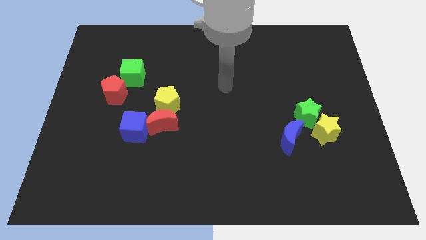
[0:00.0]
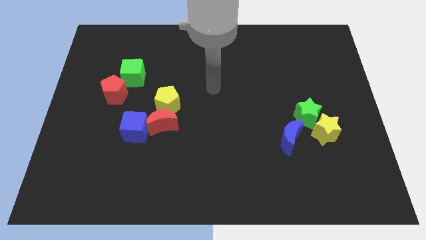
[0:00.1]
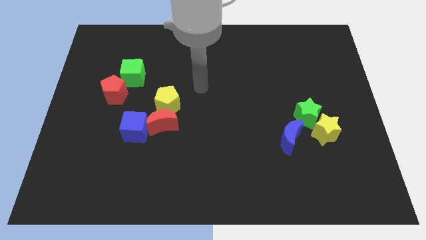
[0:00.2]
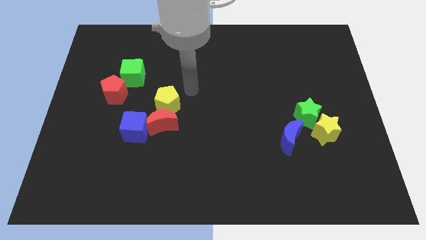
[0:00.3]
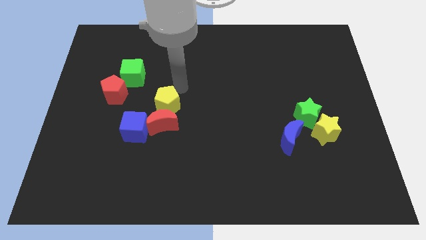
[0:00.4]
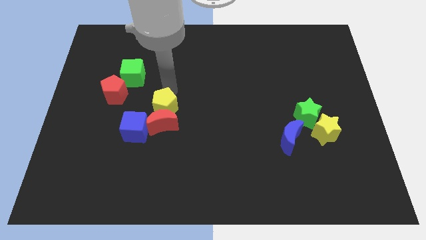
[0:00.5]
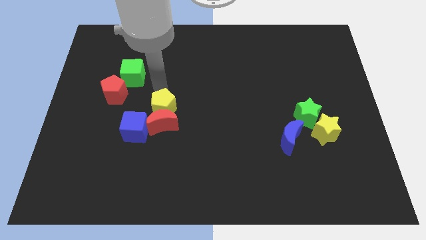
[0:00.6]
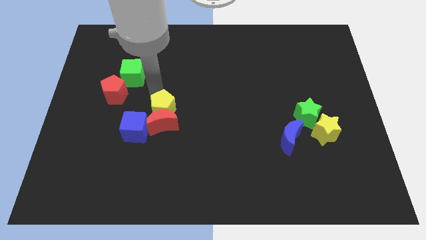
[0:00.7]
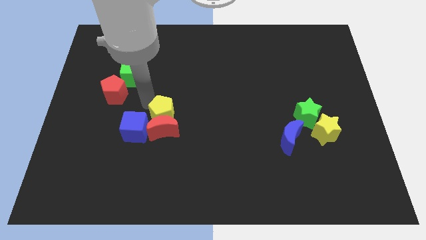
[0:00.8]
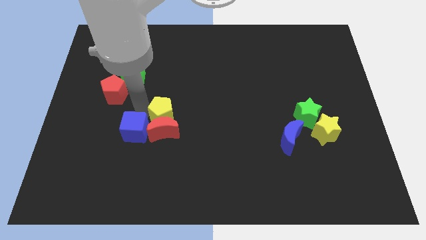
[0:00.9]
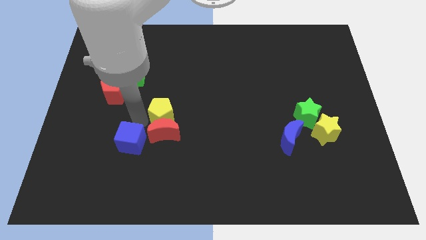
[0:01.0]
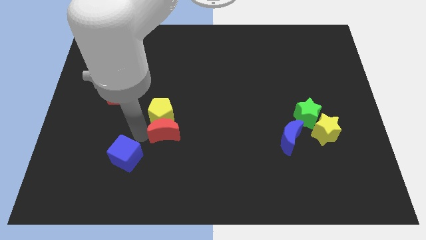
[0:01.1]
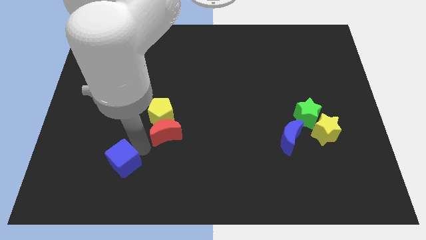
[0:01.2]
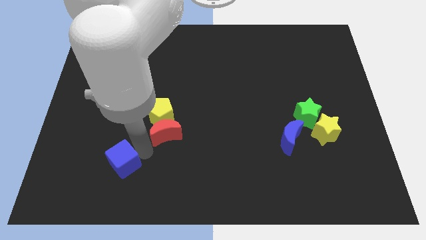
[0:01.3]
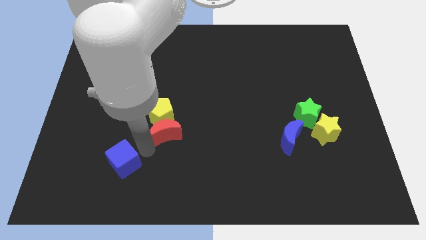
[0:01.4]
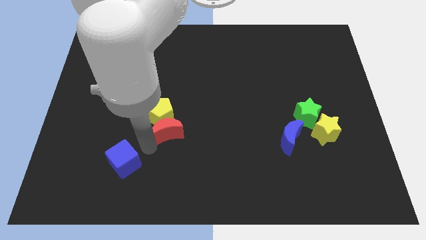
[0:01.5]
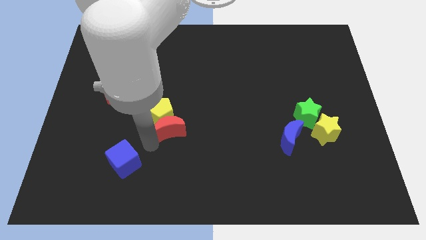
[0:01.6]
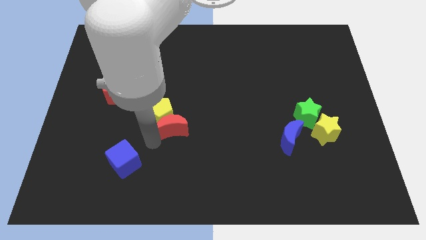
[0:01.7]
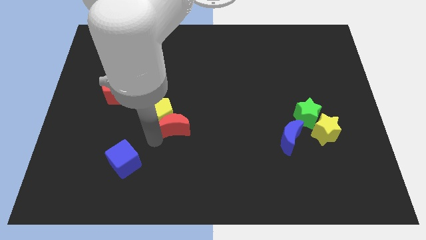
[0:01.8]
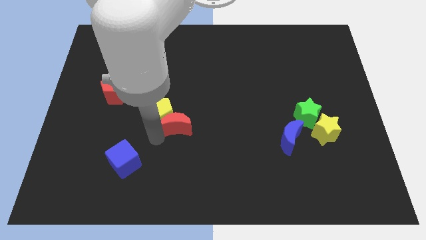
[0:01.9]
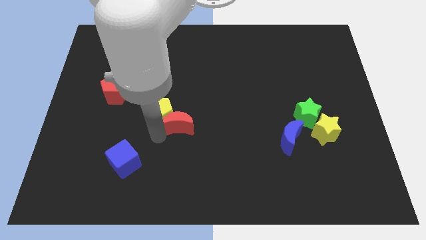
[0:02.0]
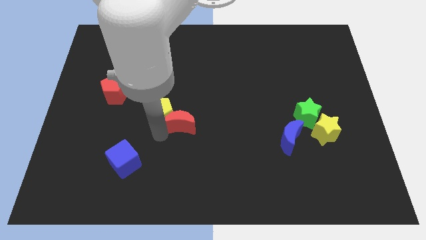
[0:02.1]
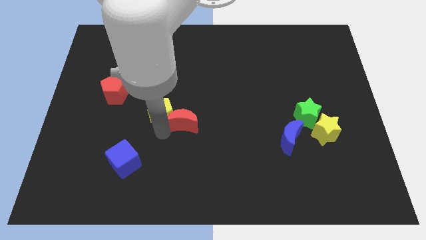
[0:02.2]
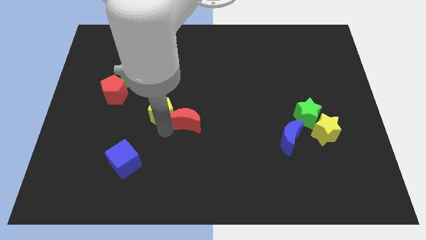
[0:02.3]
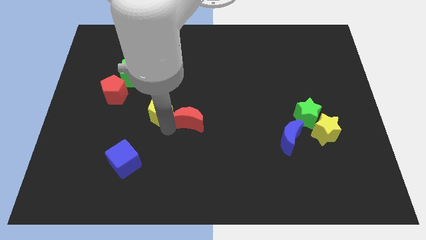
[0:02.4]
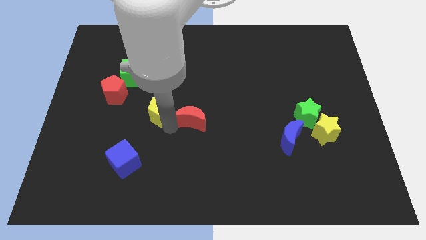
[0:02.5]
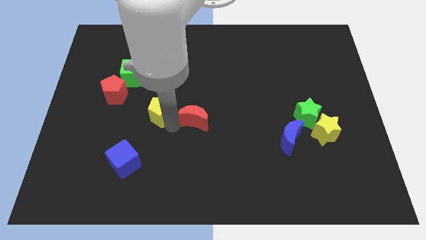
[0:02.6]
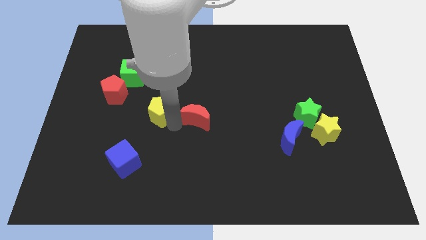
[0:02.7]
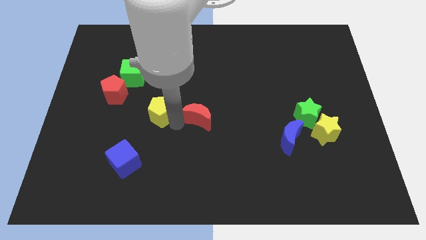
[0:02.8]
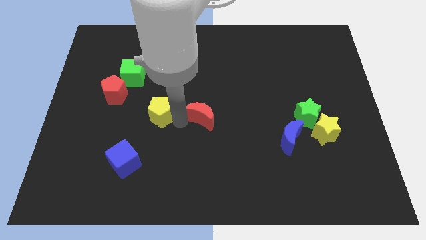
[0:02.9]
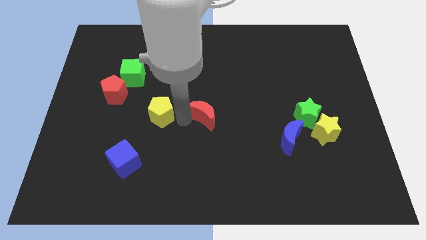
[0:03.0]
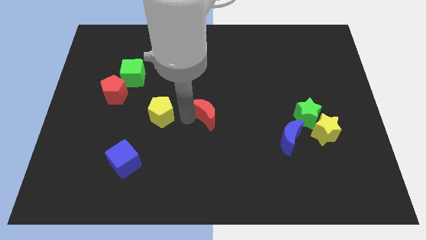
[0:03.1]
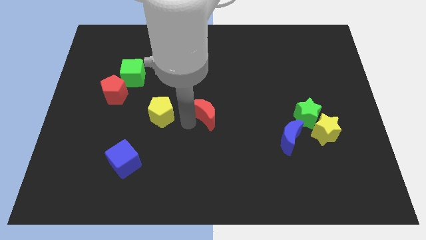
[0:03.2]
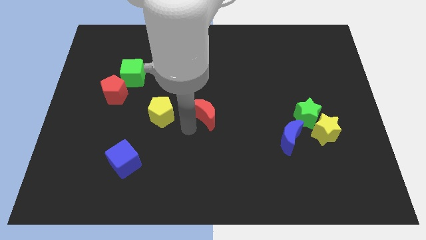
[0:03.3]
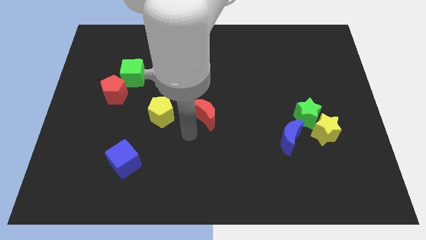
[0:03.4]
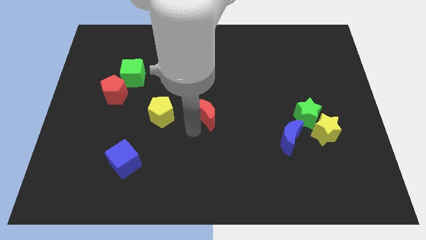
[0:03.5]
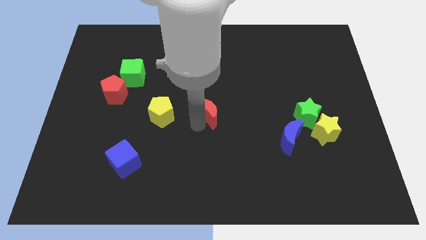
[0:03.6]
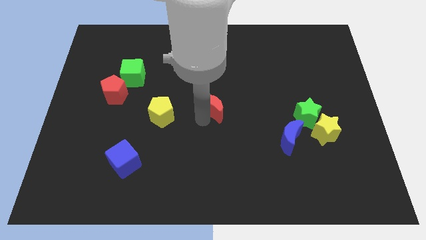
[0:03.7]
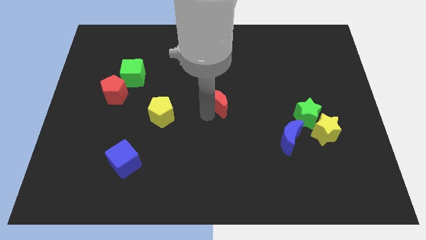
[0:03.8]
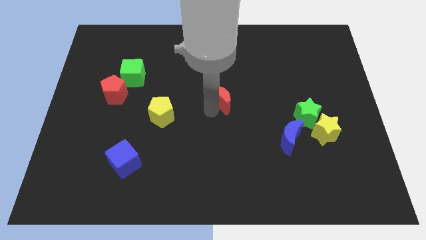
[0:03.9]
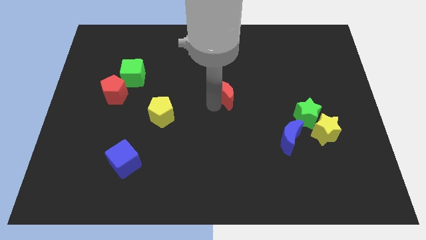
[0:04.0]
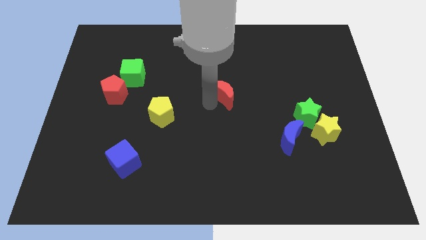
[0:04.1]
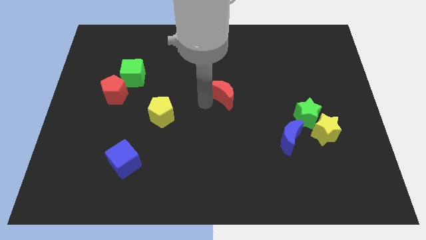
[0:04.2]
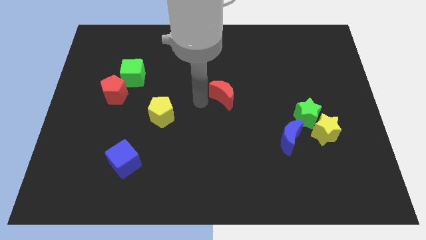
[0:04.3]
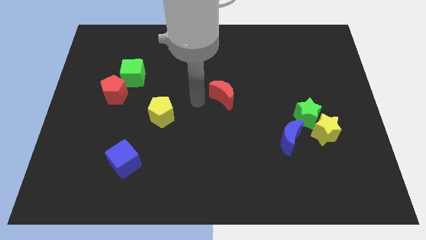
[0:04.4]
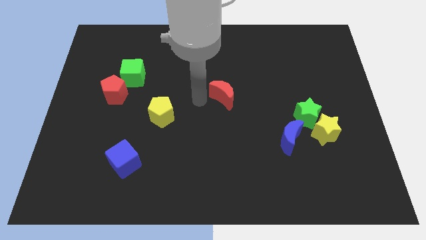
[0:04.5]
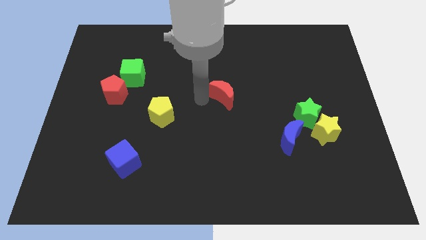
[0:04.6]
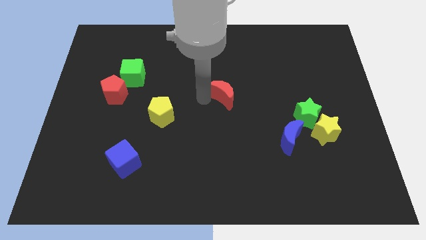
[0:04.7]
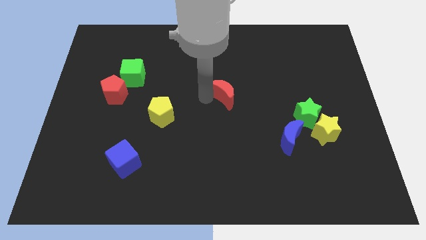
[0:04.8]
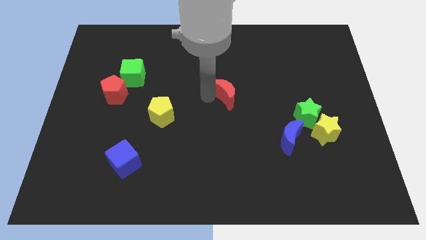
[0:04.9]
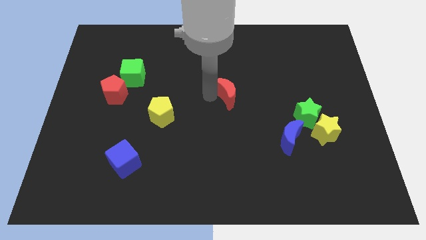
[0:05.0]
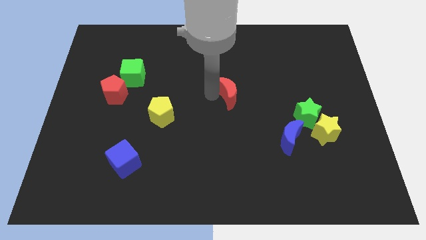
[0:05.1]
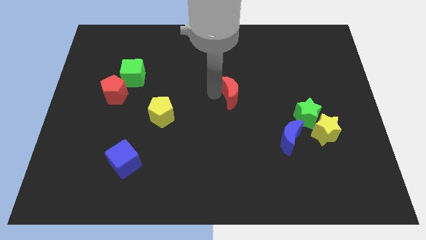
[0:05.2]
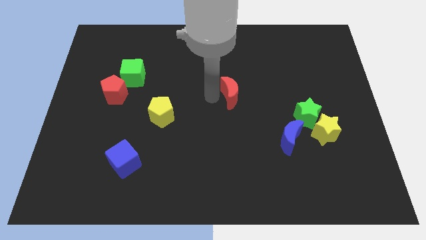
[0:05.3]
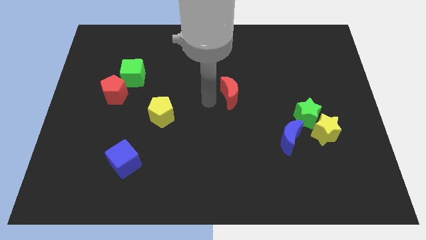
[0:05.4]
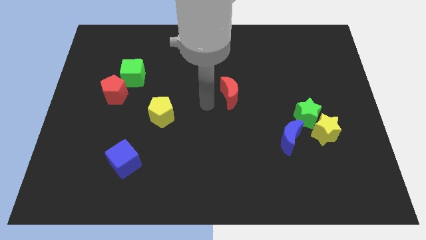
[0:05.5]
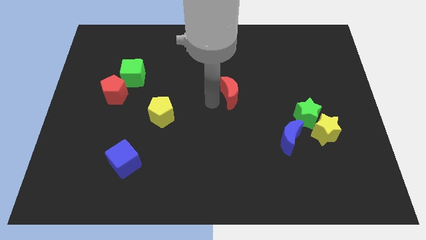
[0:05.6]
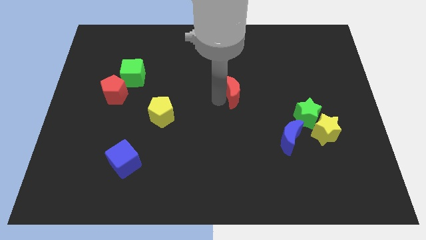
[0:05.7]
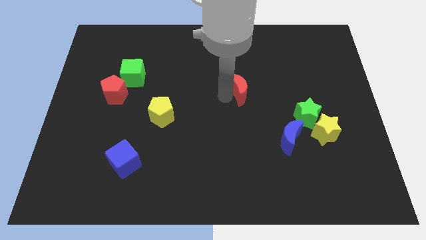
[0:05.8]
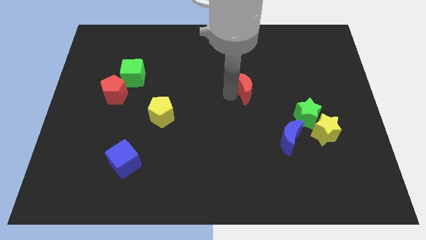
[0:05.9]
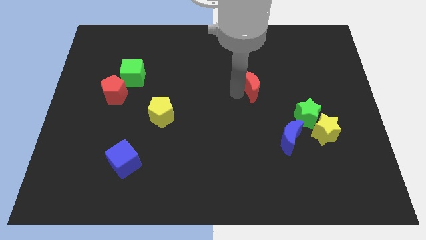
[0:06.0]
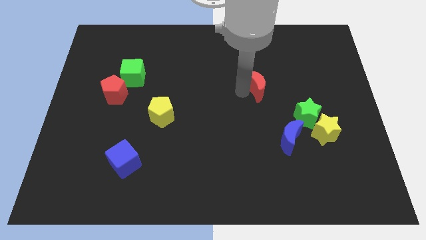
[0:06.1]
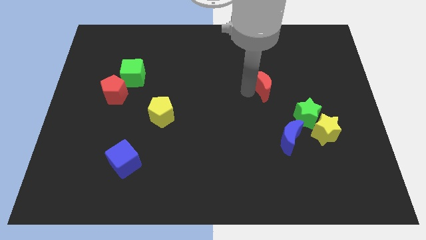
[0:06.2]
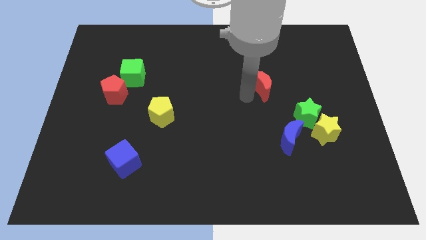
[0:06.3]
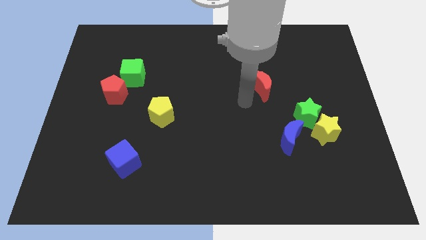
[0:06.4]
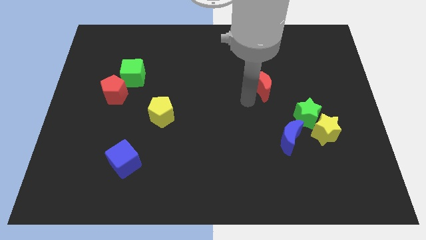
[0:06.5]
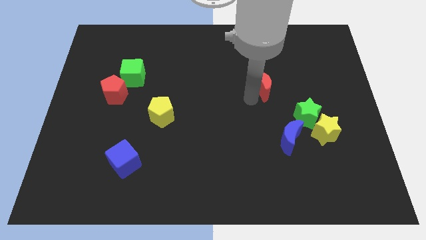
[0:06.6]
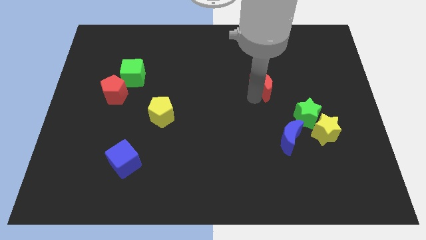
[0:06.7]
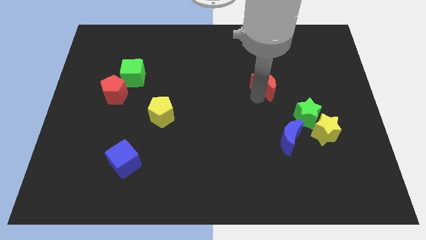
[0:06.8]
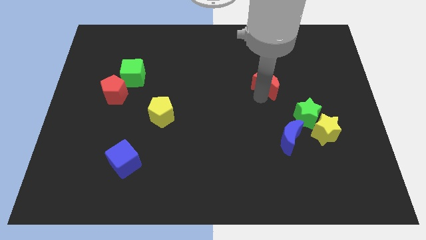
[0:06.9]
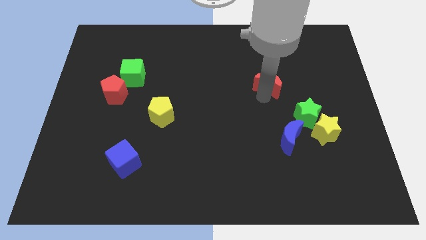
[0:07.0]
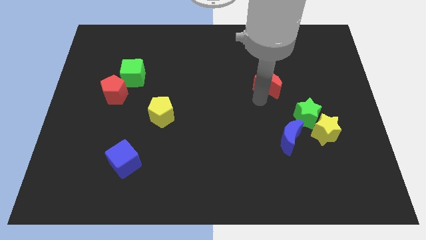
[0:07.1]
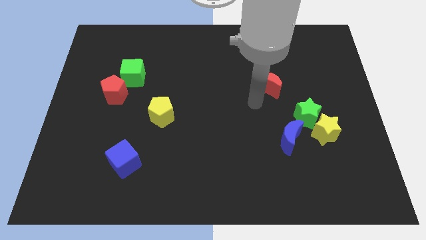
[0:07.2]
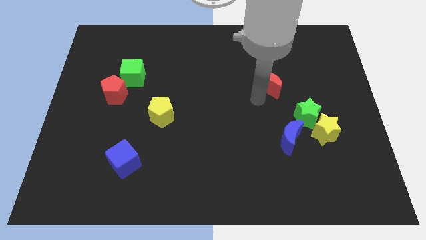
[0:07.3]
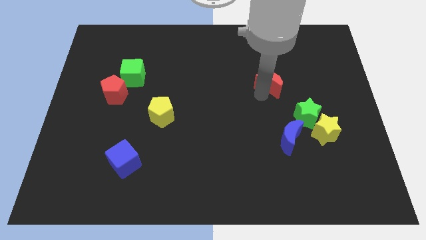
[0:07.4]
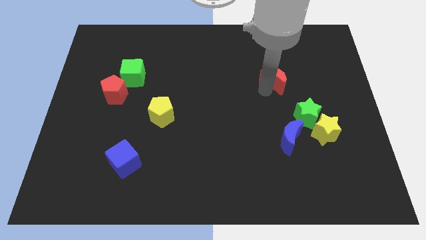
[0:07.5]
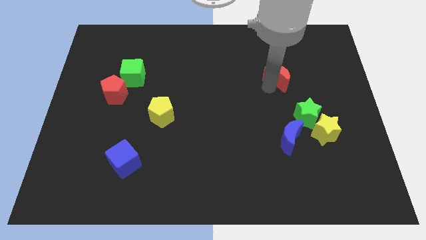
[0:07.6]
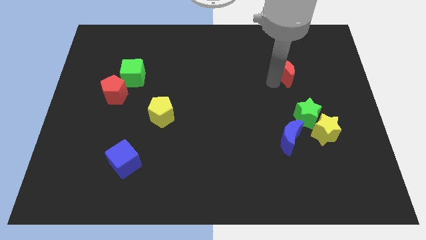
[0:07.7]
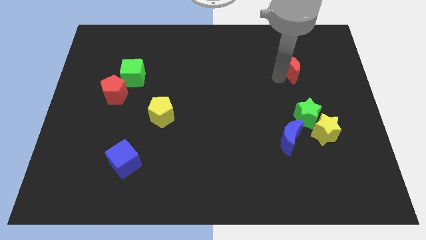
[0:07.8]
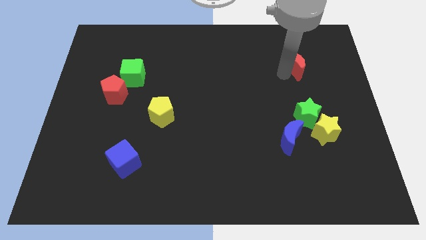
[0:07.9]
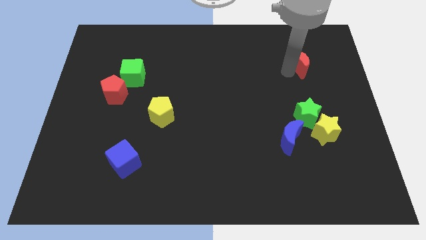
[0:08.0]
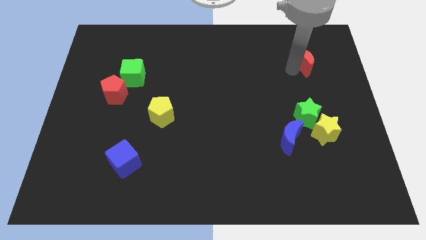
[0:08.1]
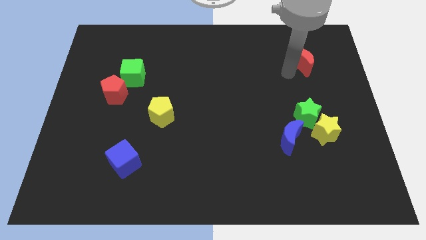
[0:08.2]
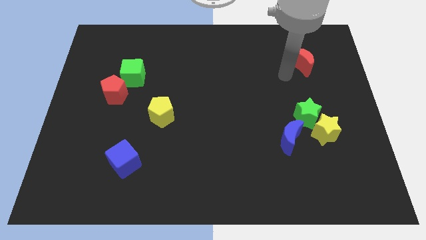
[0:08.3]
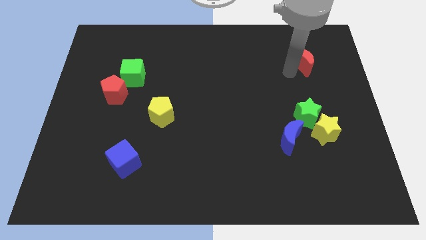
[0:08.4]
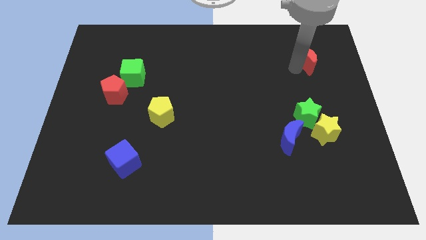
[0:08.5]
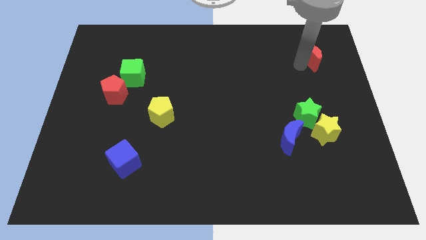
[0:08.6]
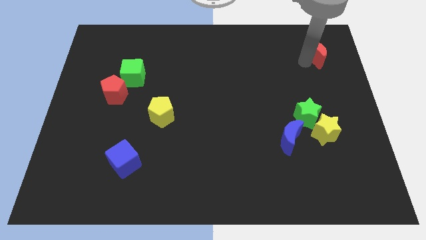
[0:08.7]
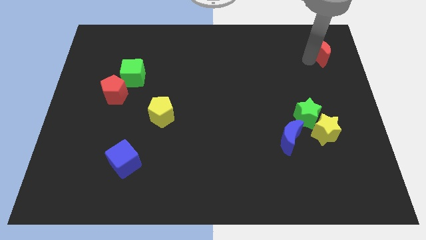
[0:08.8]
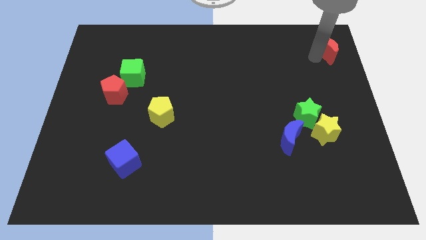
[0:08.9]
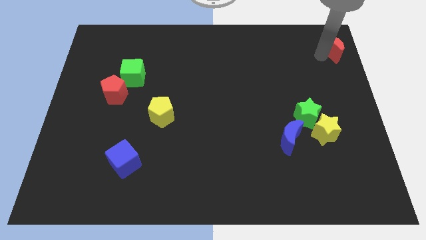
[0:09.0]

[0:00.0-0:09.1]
move the red moon to the top right corner
